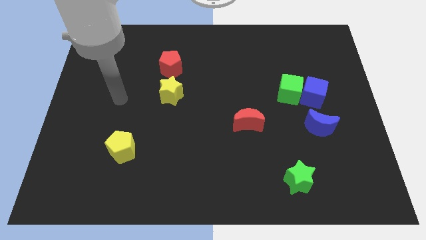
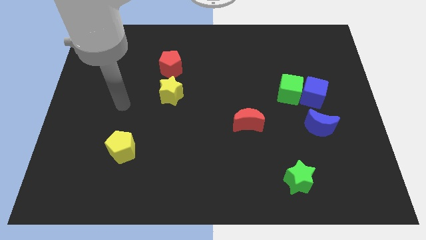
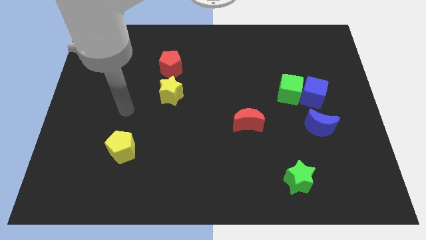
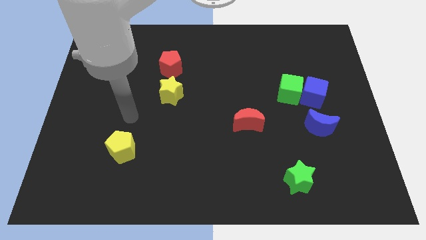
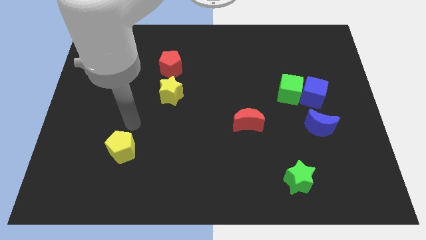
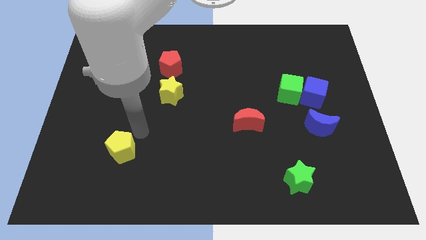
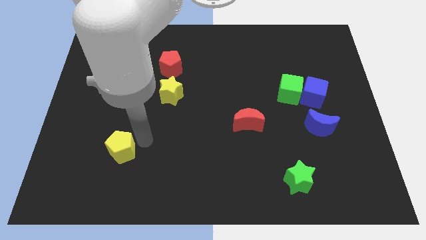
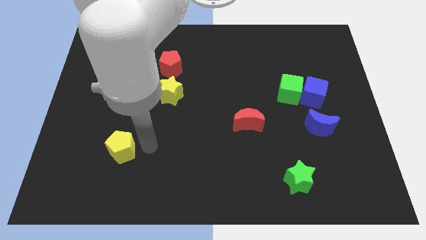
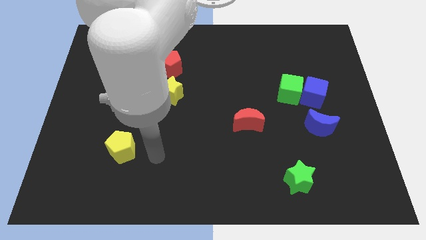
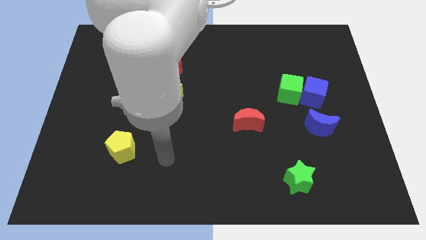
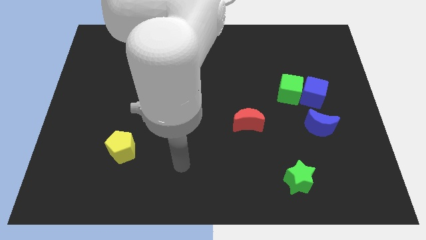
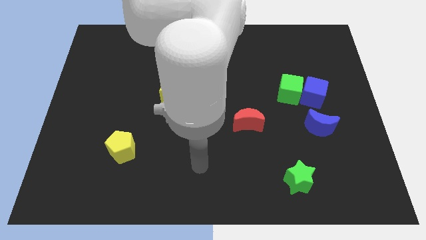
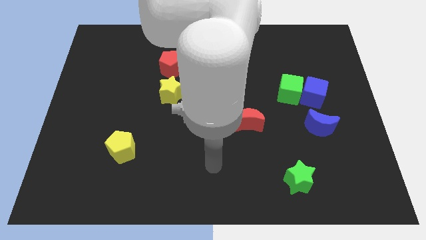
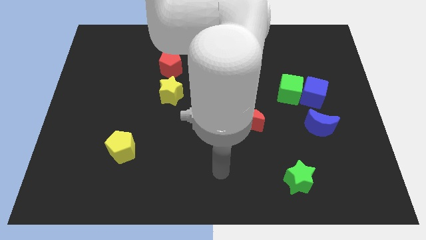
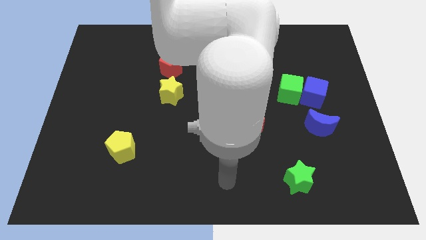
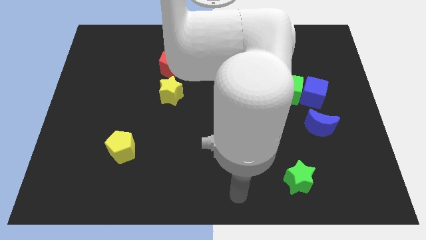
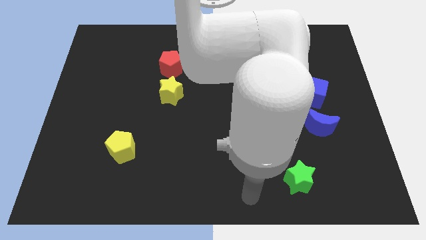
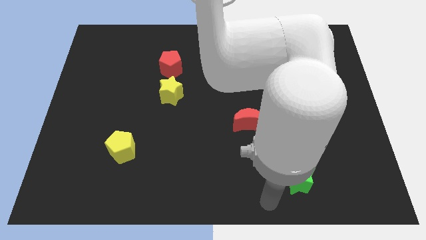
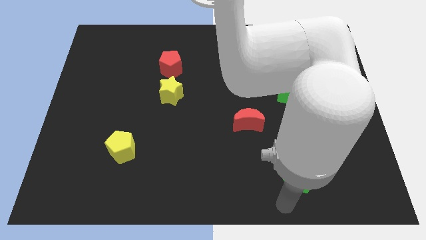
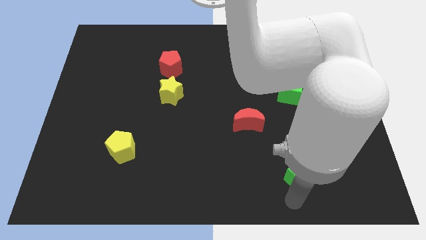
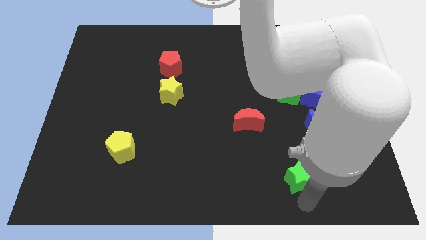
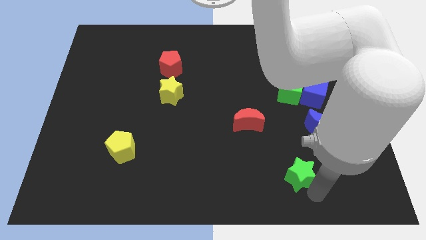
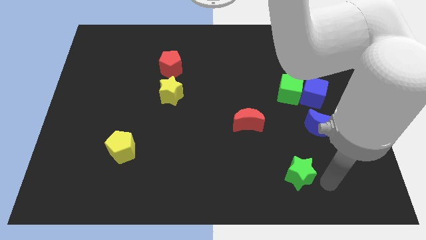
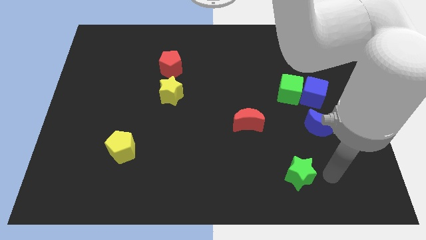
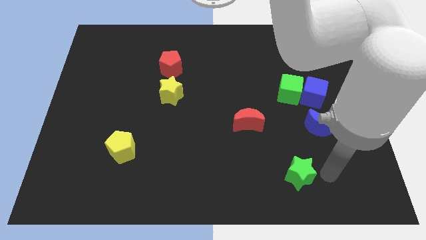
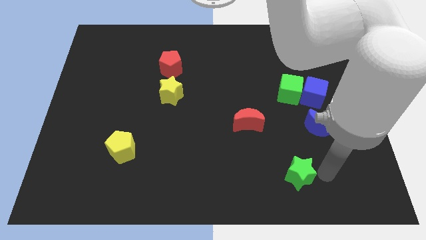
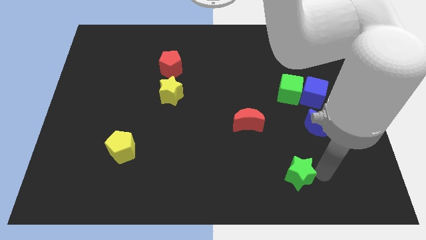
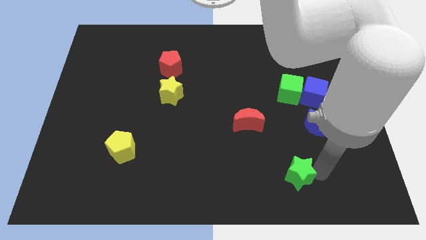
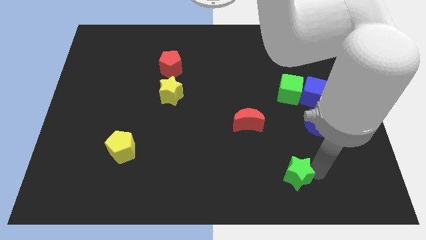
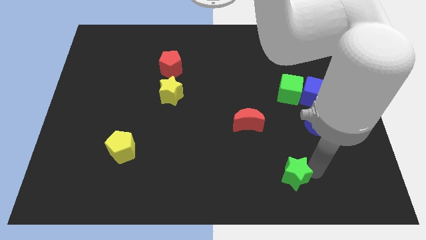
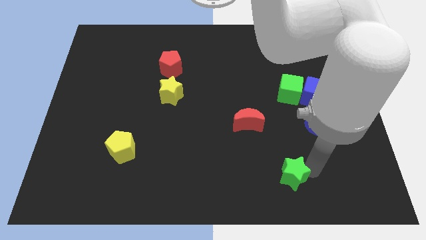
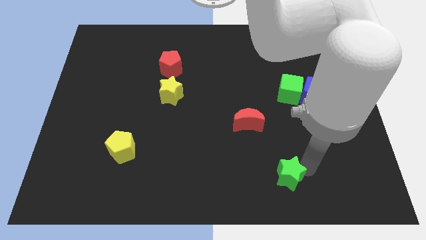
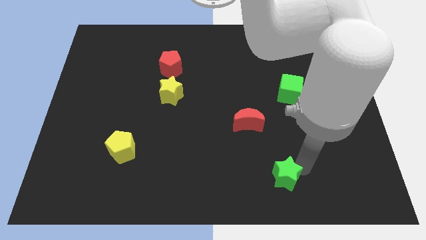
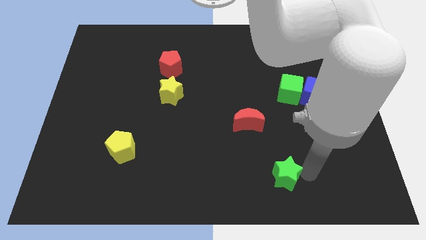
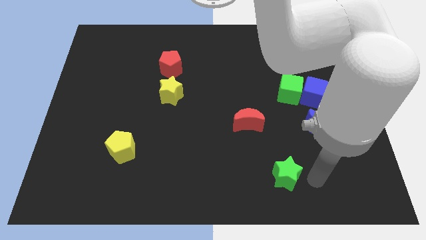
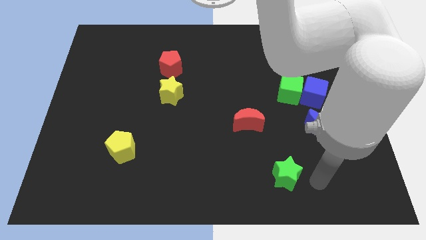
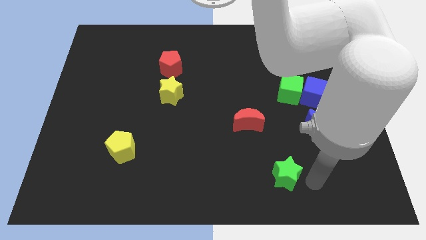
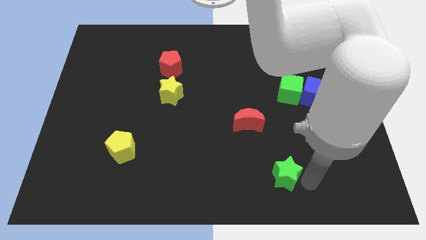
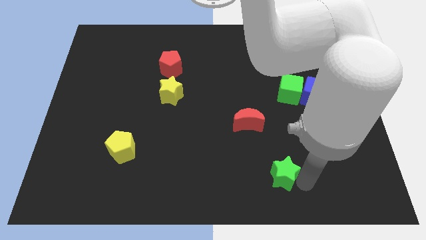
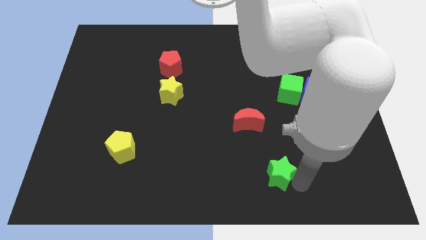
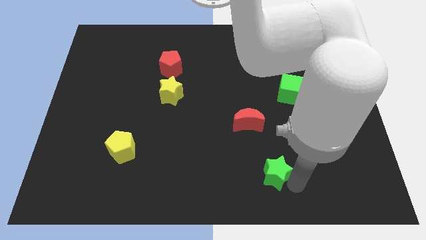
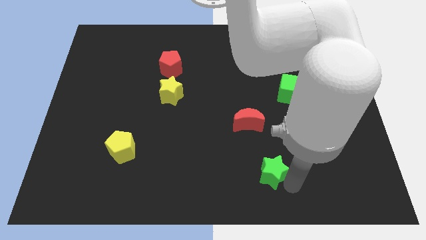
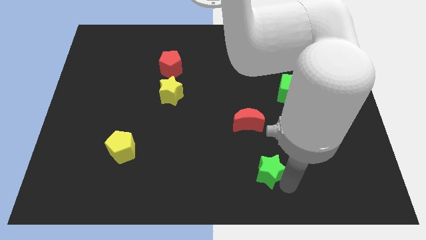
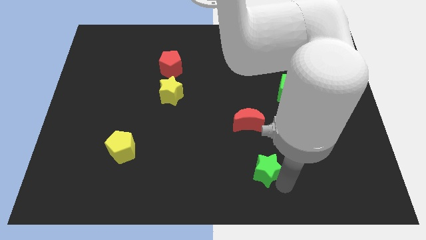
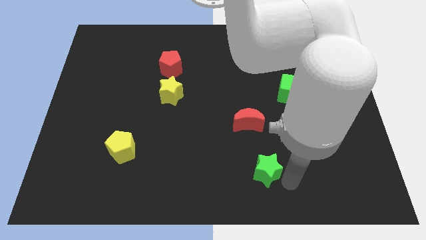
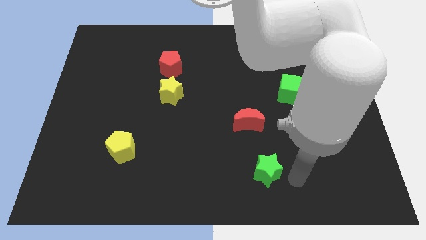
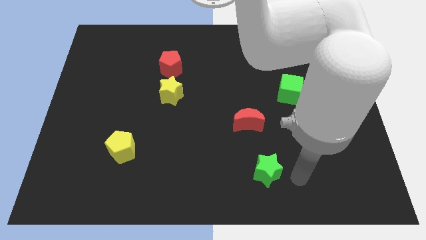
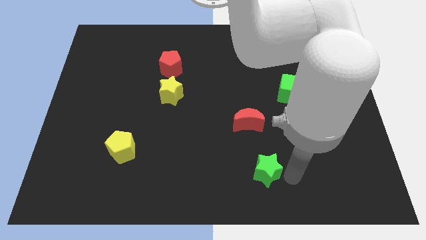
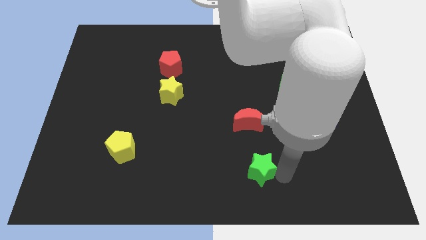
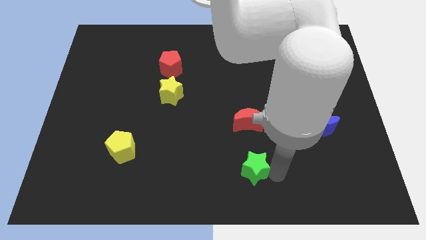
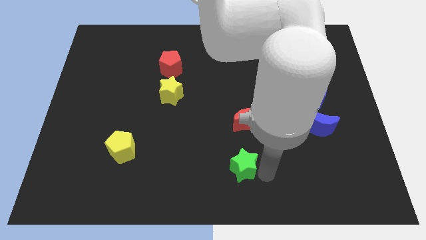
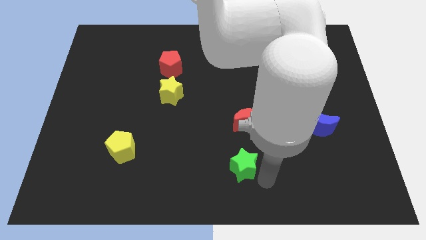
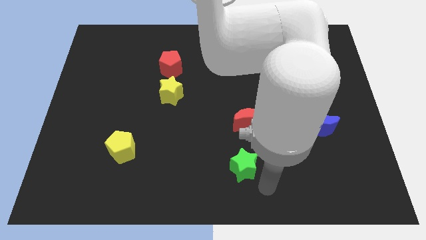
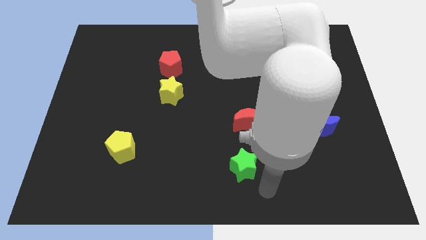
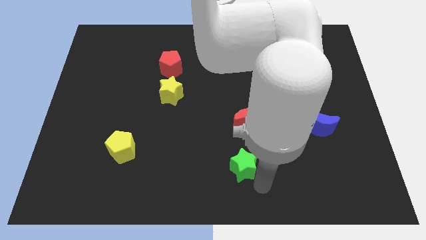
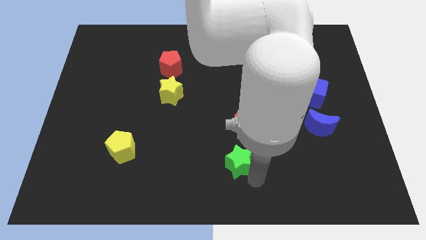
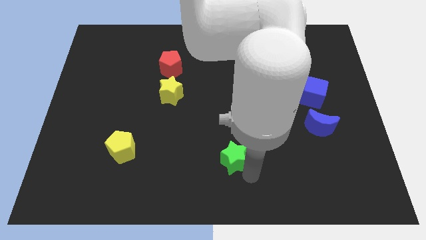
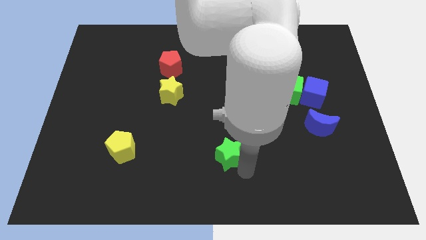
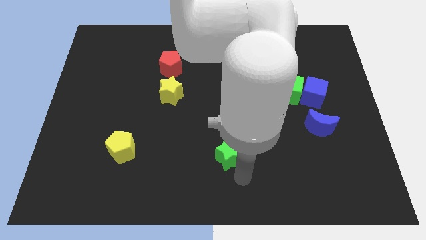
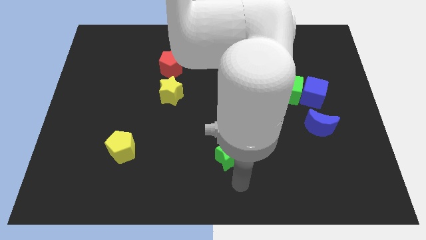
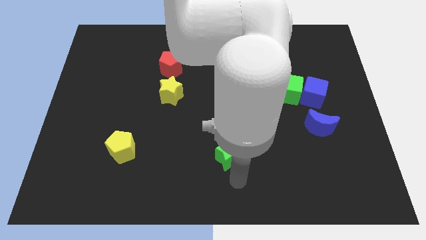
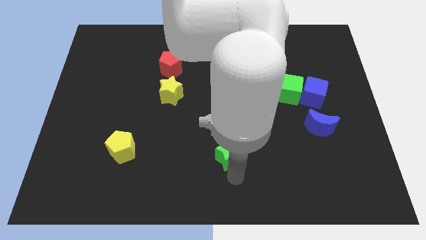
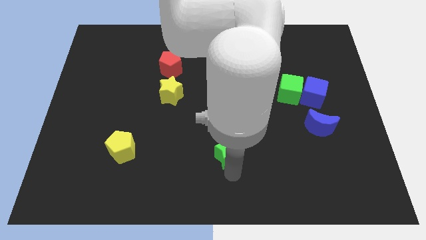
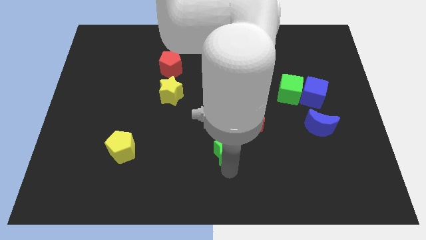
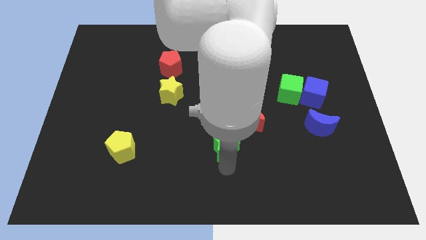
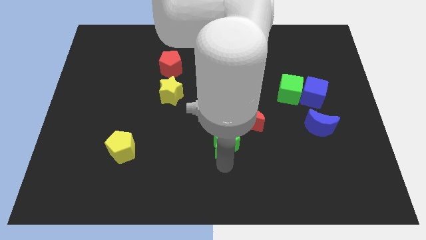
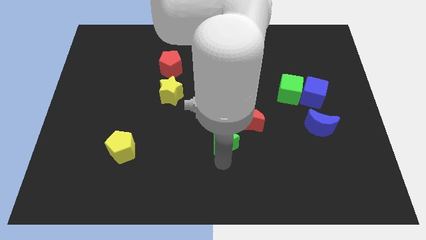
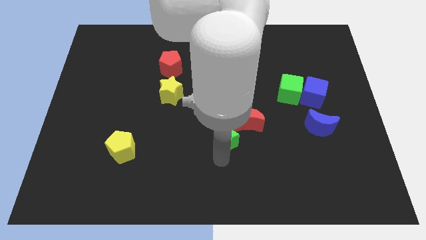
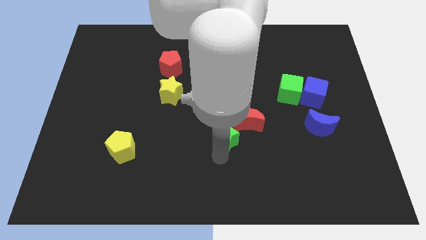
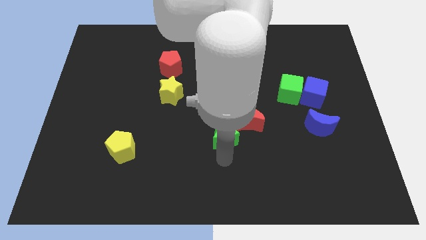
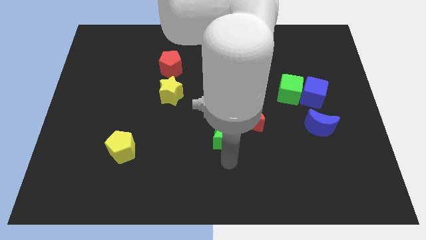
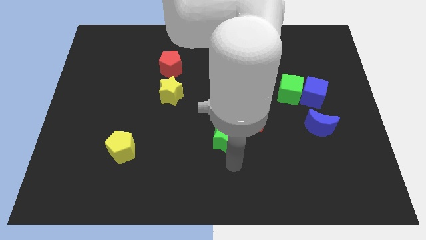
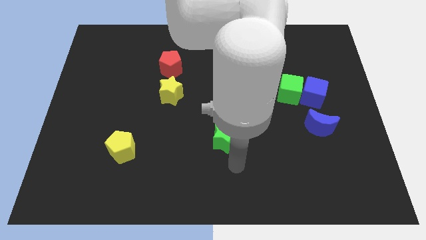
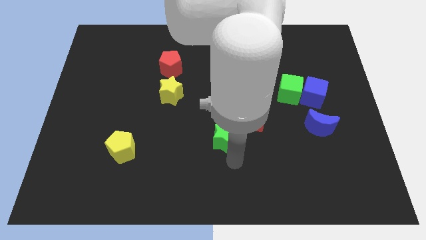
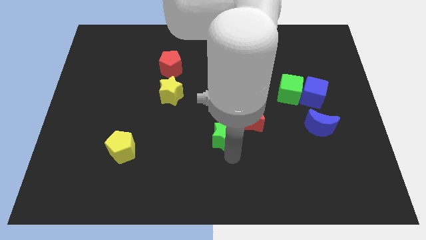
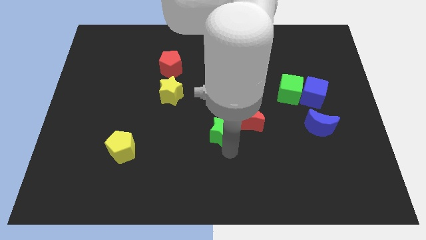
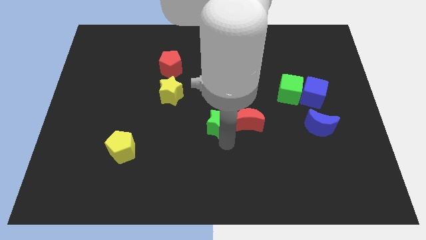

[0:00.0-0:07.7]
push the green star up and then to the left

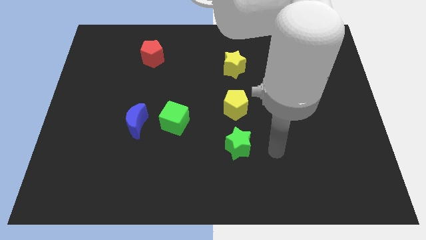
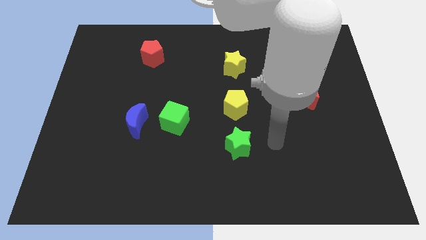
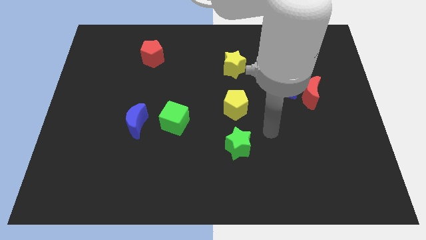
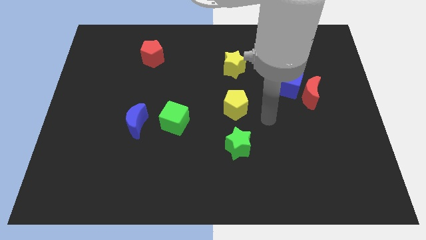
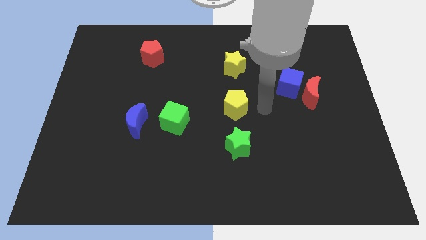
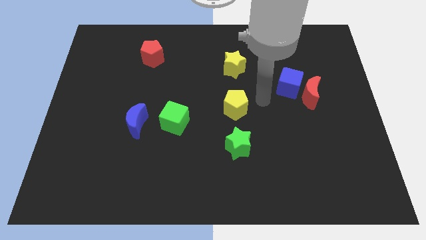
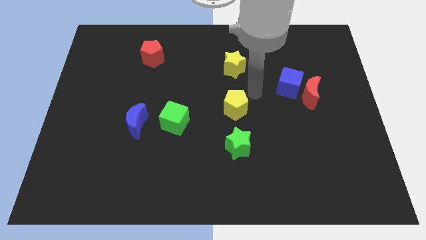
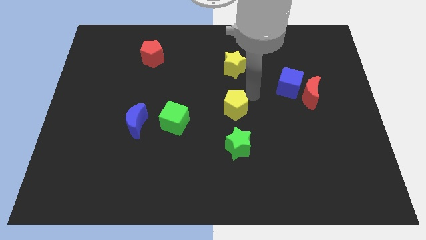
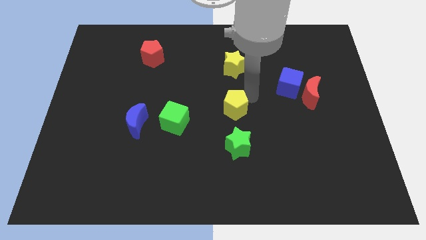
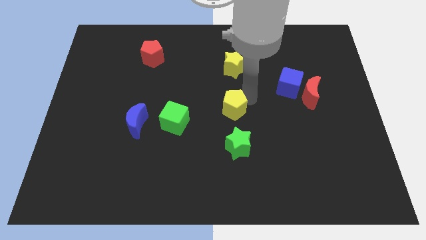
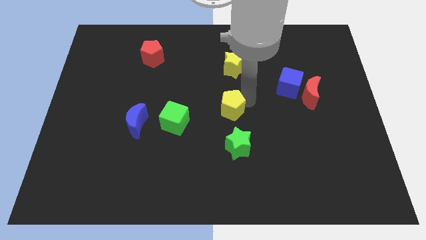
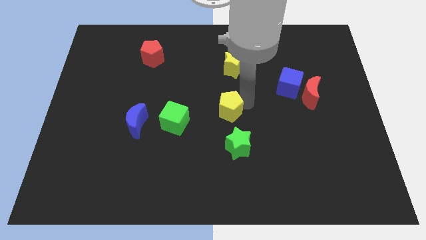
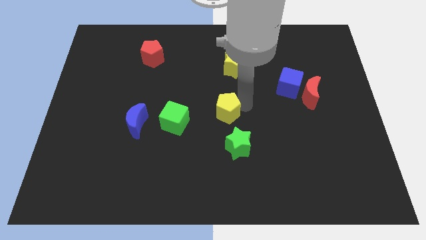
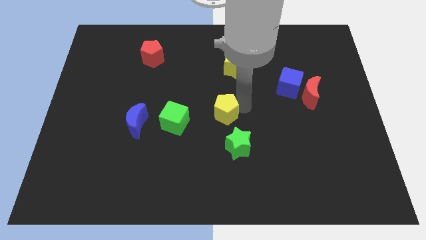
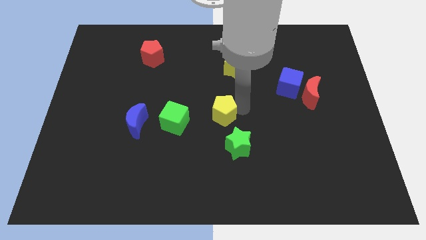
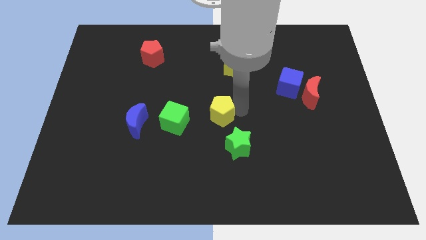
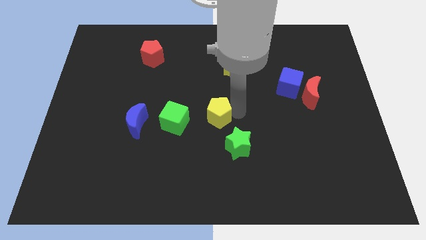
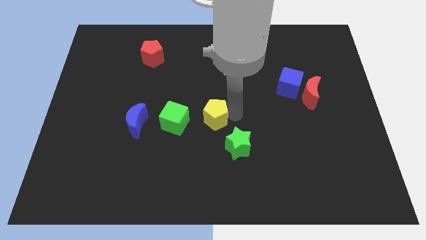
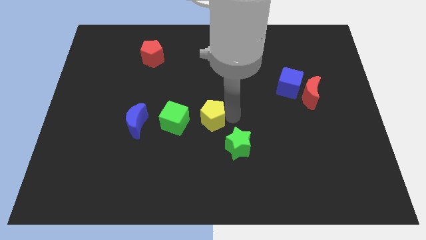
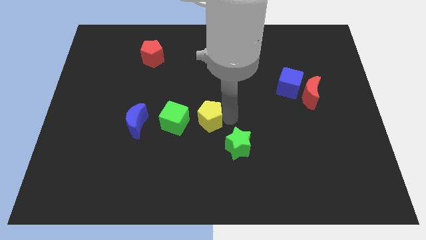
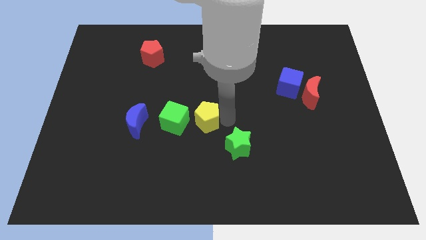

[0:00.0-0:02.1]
move the yellow pentagon diagonally downwards and to the left somewhat
